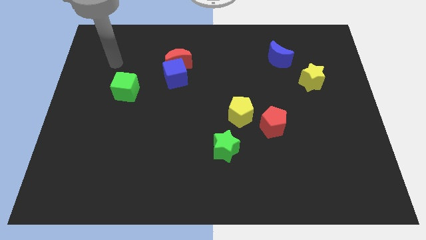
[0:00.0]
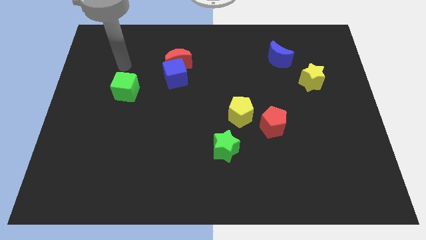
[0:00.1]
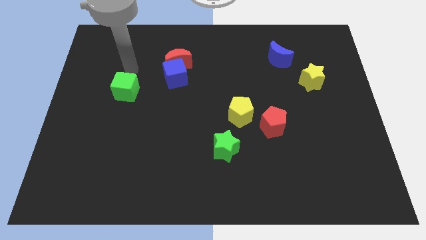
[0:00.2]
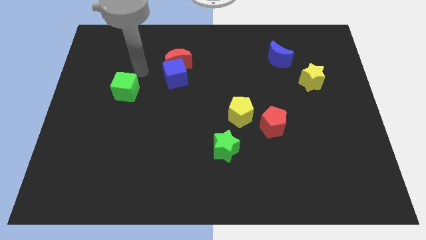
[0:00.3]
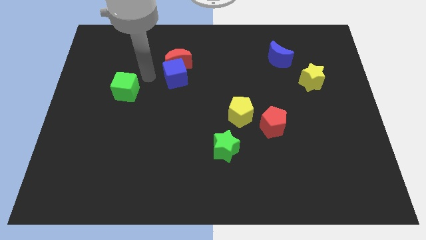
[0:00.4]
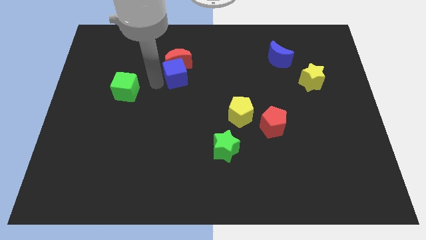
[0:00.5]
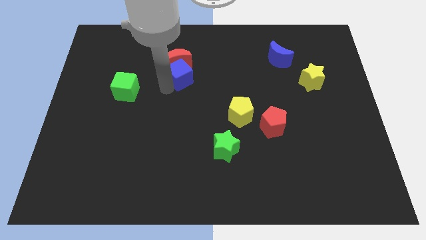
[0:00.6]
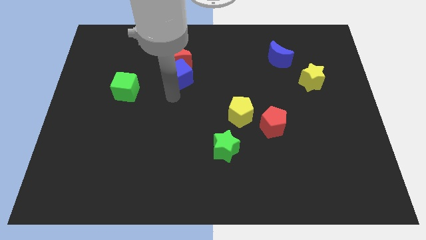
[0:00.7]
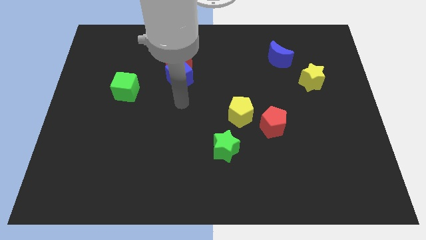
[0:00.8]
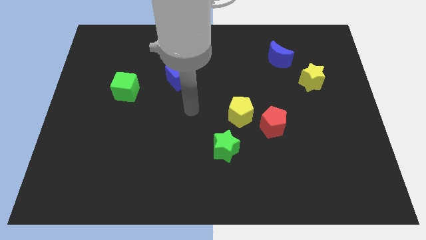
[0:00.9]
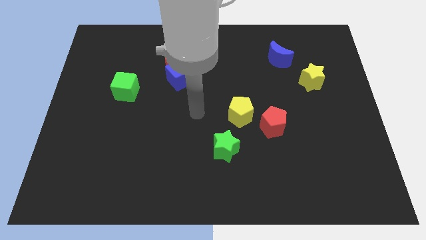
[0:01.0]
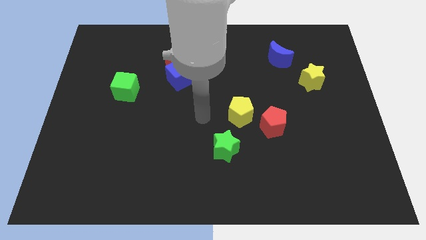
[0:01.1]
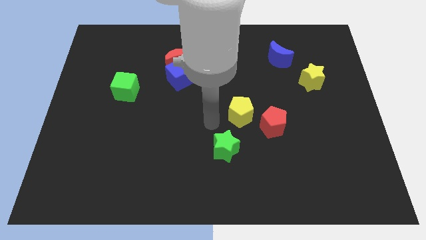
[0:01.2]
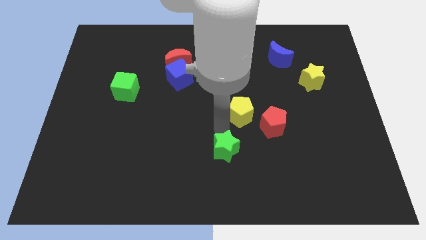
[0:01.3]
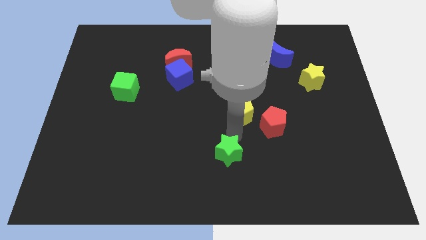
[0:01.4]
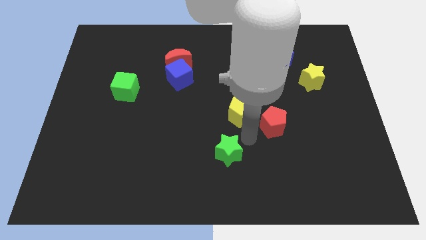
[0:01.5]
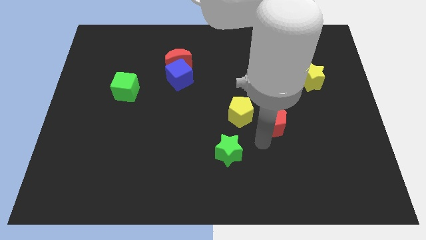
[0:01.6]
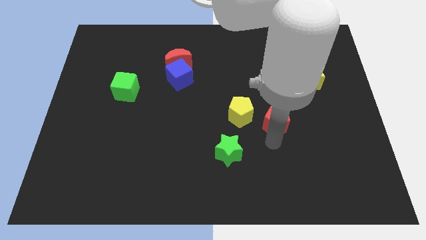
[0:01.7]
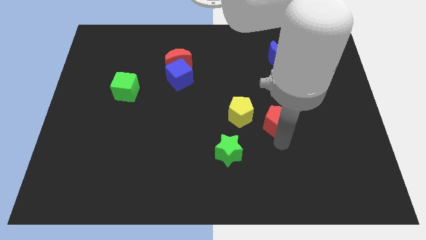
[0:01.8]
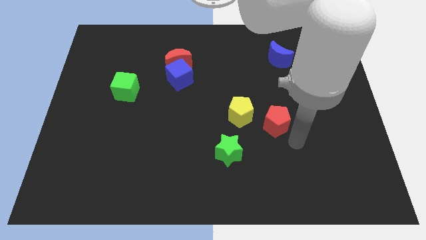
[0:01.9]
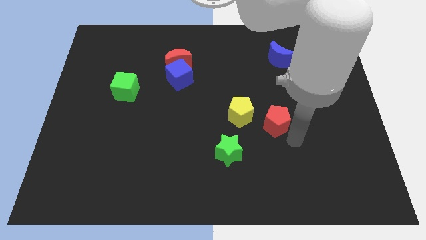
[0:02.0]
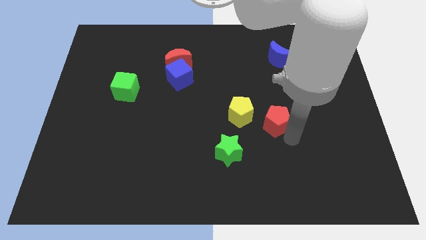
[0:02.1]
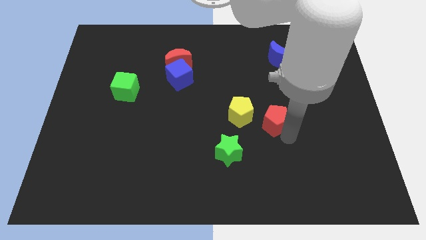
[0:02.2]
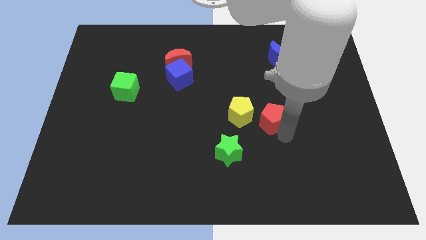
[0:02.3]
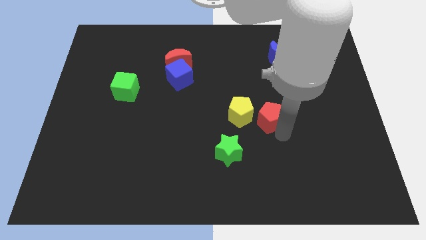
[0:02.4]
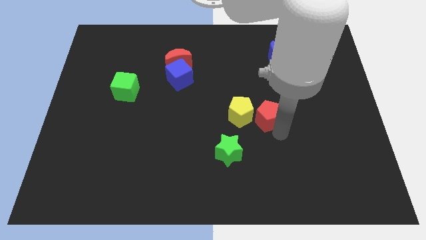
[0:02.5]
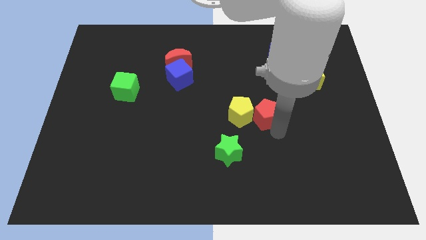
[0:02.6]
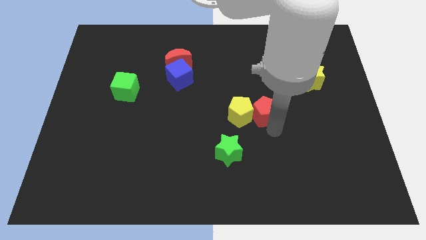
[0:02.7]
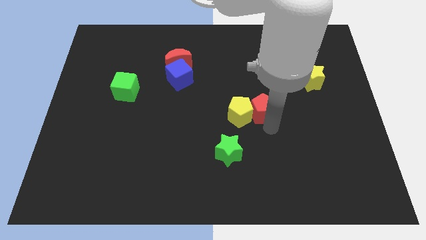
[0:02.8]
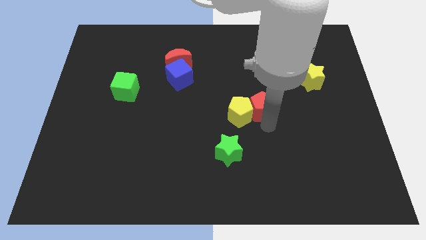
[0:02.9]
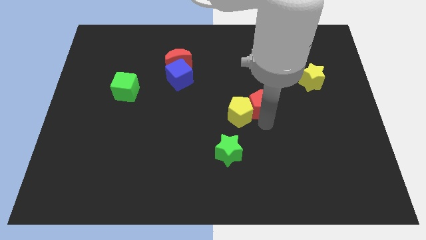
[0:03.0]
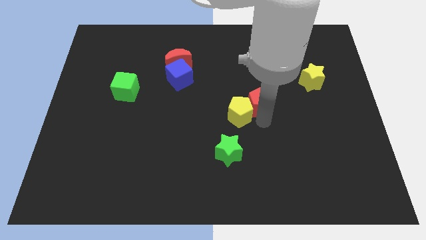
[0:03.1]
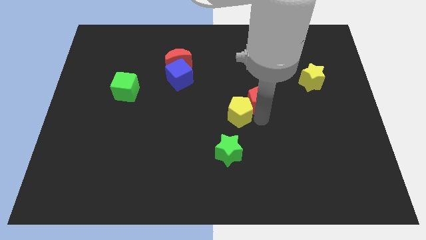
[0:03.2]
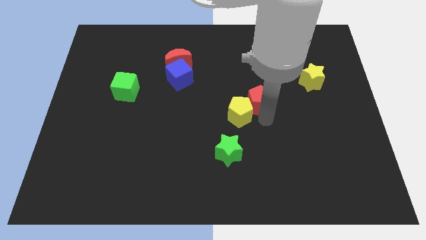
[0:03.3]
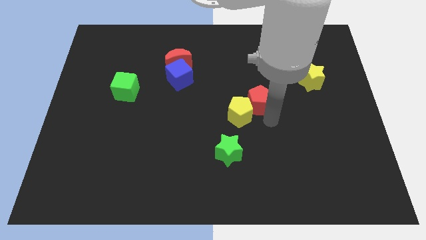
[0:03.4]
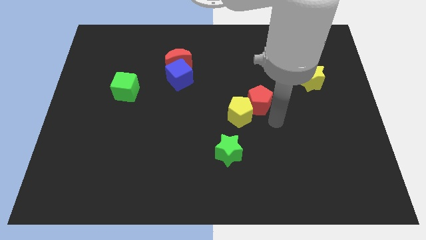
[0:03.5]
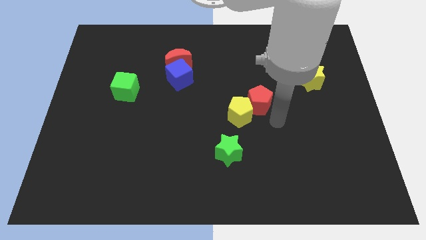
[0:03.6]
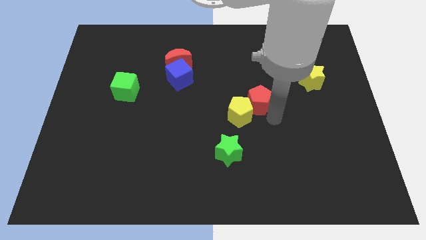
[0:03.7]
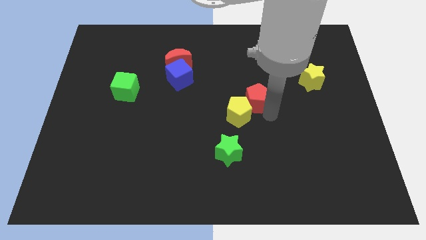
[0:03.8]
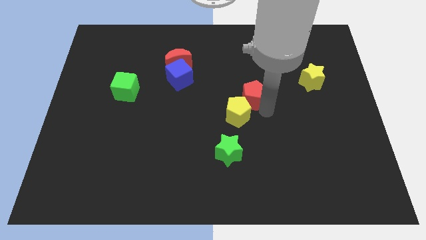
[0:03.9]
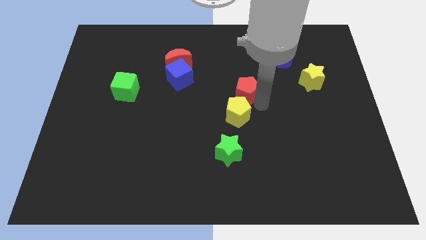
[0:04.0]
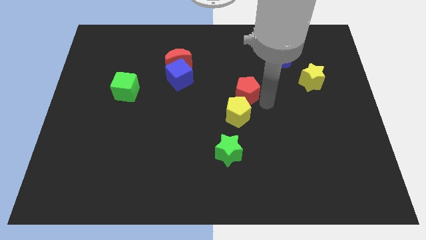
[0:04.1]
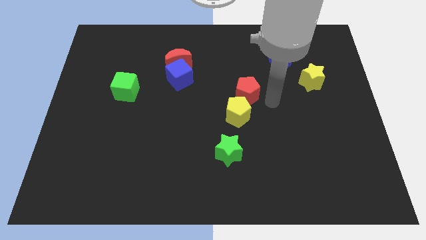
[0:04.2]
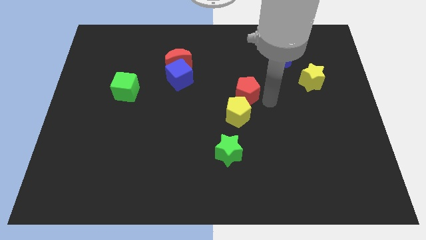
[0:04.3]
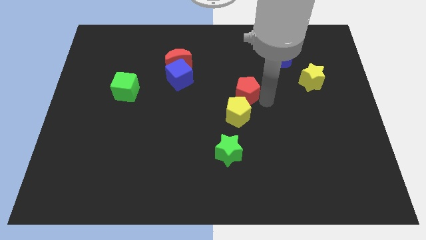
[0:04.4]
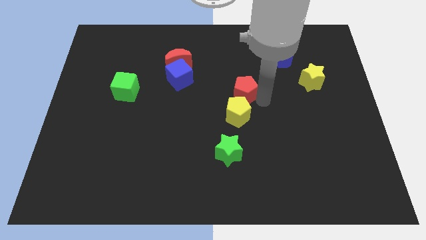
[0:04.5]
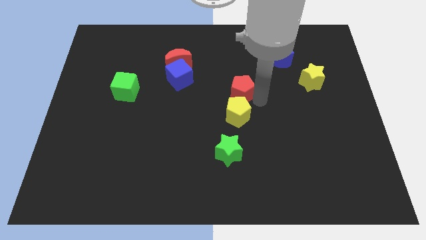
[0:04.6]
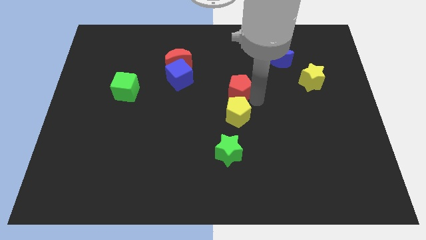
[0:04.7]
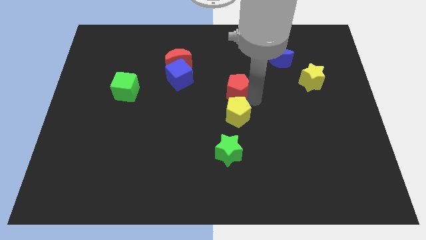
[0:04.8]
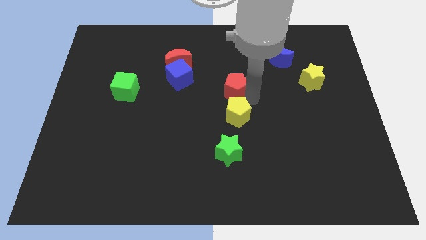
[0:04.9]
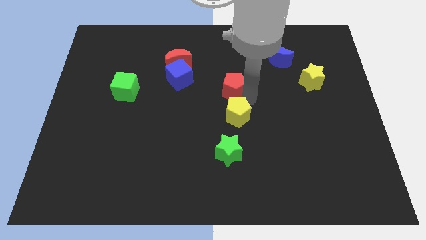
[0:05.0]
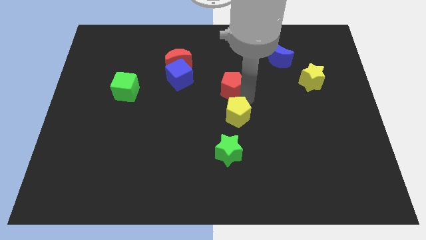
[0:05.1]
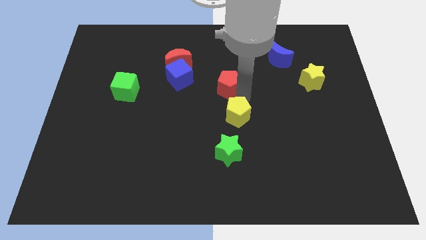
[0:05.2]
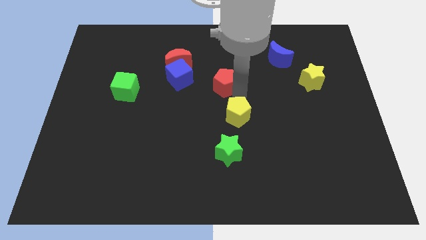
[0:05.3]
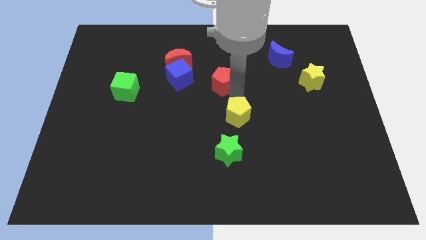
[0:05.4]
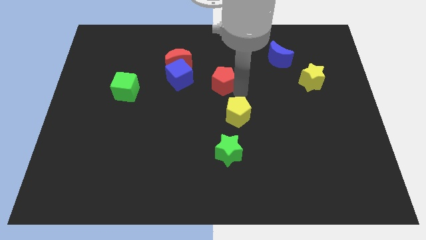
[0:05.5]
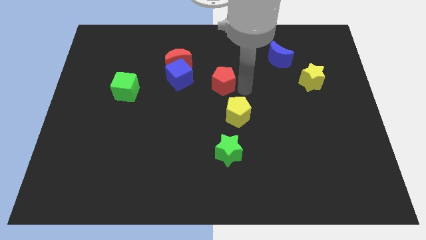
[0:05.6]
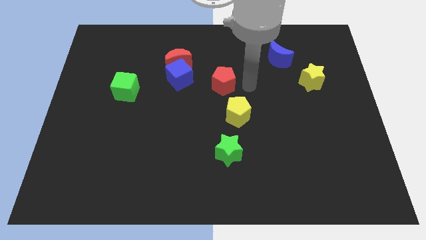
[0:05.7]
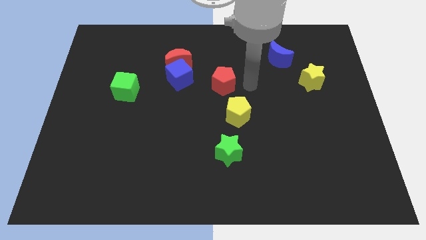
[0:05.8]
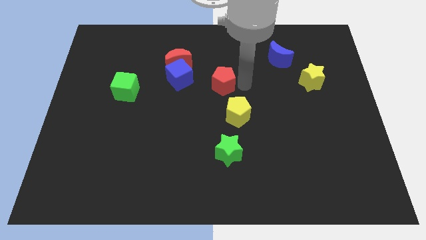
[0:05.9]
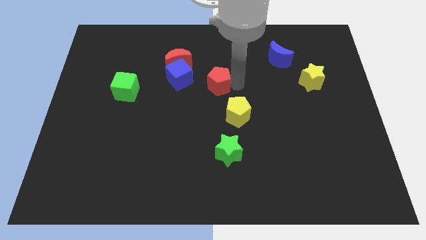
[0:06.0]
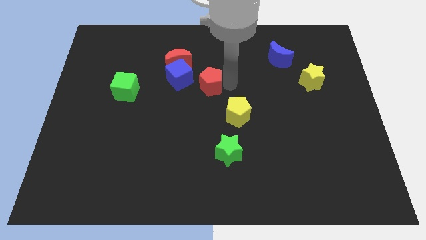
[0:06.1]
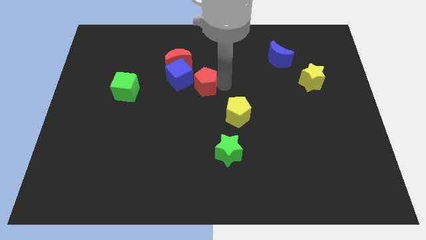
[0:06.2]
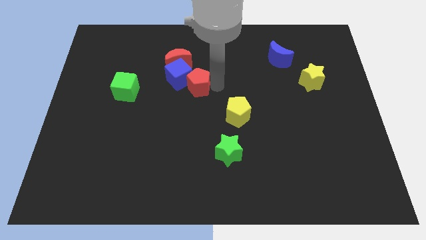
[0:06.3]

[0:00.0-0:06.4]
slide the red pentagon next to the blue cube

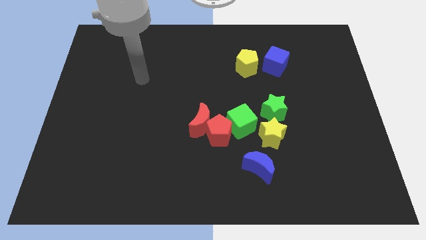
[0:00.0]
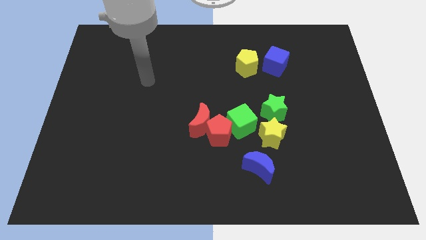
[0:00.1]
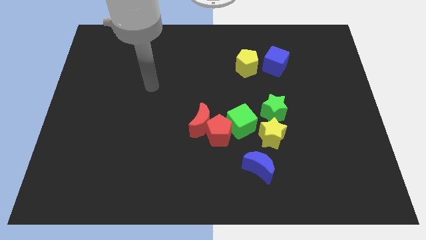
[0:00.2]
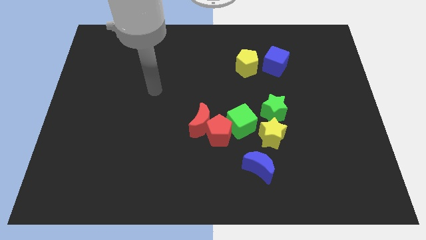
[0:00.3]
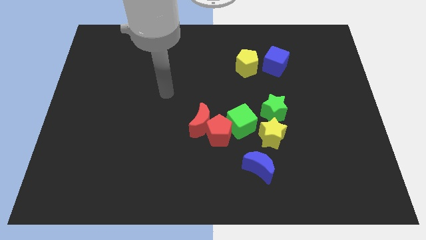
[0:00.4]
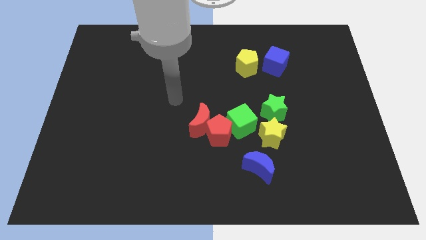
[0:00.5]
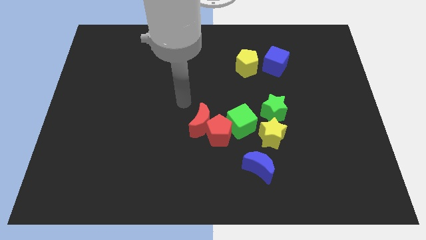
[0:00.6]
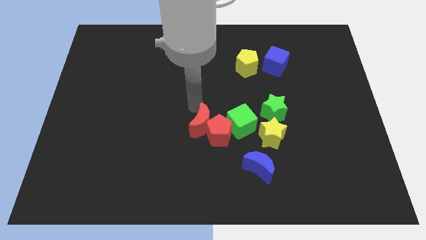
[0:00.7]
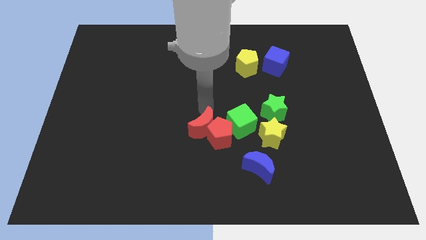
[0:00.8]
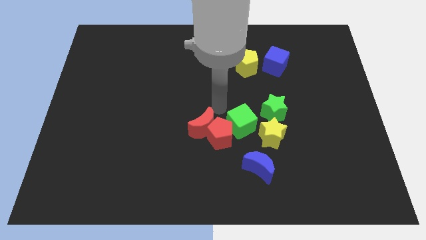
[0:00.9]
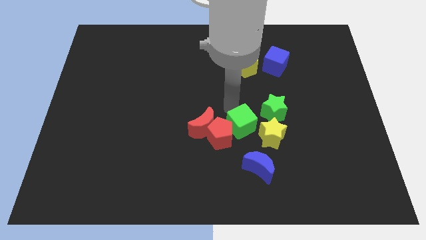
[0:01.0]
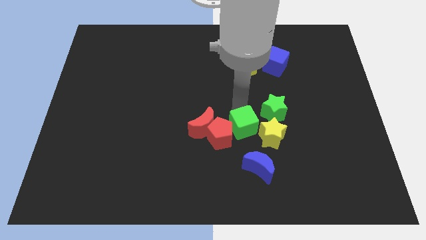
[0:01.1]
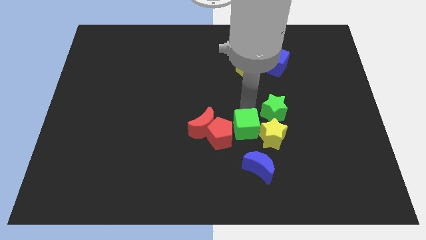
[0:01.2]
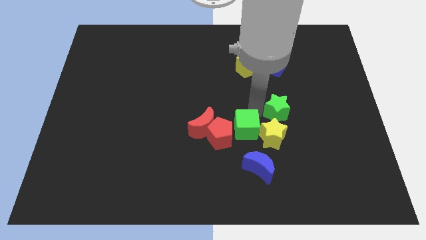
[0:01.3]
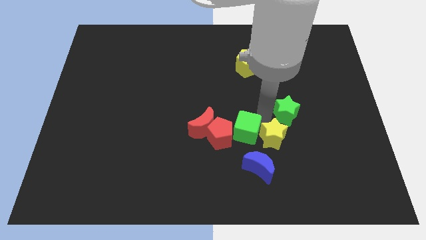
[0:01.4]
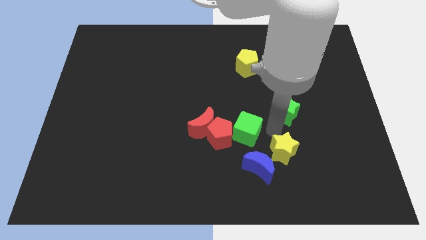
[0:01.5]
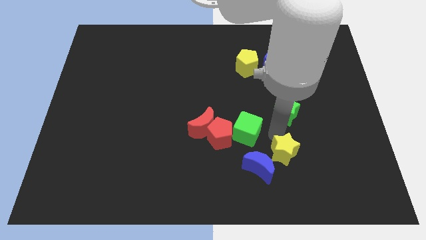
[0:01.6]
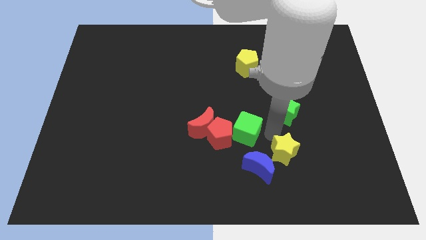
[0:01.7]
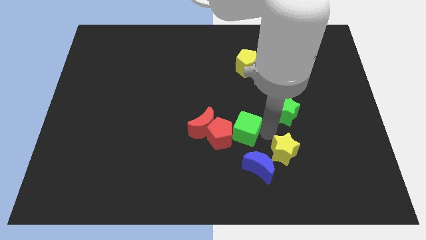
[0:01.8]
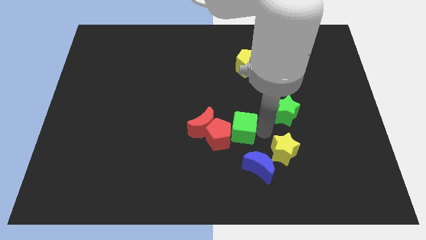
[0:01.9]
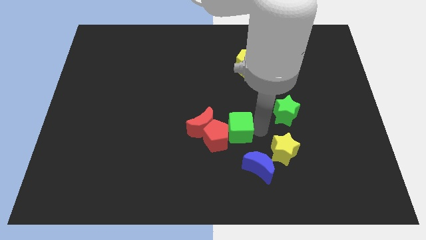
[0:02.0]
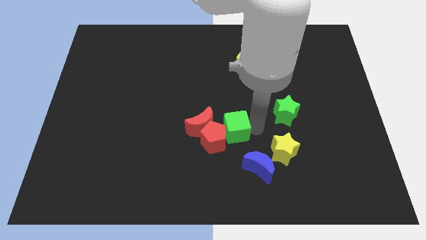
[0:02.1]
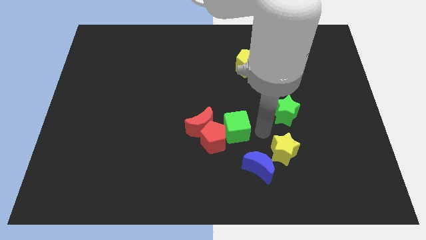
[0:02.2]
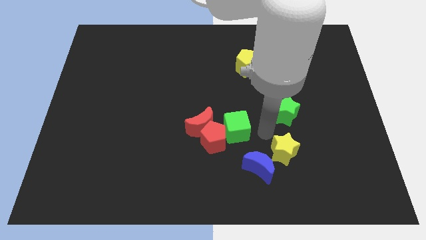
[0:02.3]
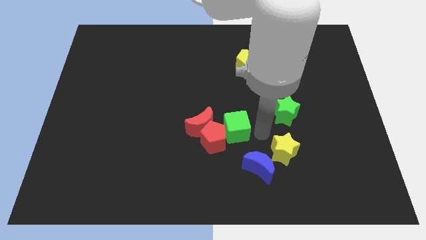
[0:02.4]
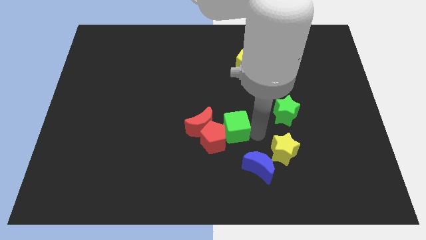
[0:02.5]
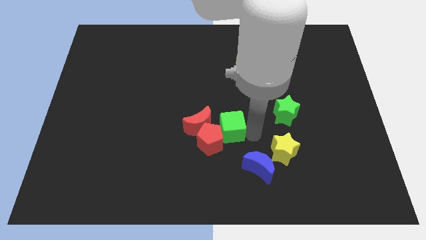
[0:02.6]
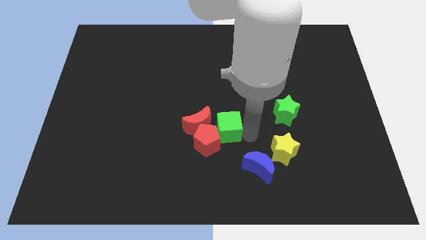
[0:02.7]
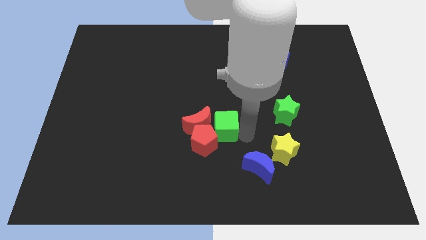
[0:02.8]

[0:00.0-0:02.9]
slide the green cube close to the red moon
